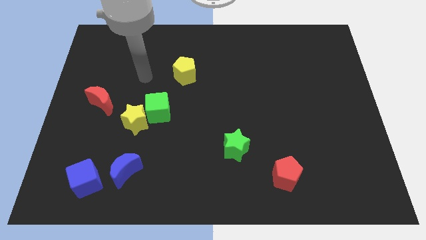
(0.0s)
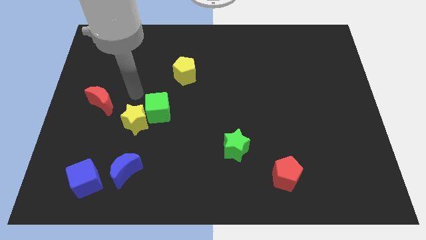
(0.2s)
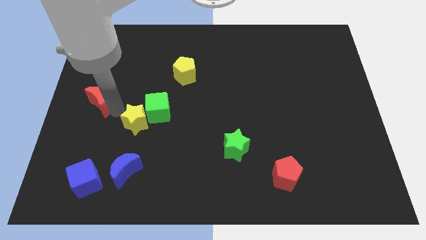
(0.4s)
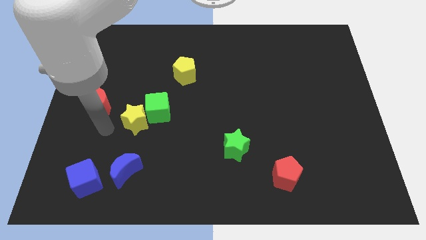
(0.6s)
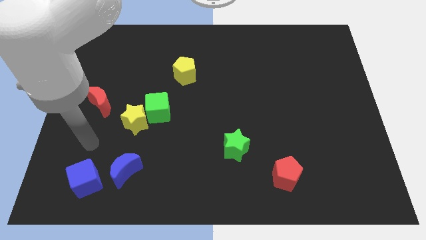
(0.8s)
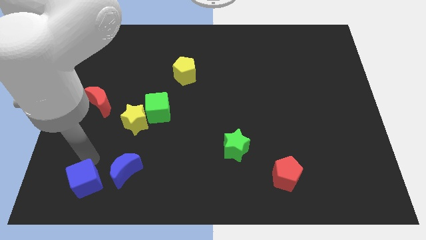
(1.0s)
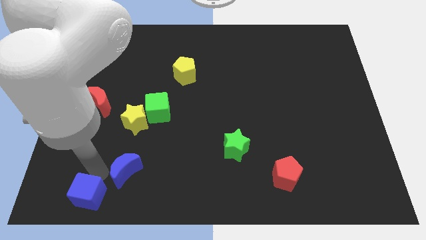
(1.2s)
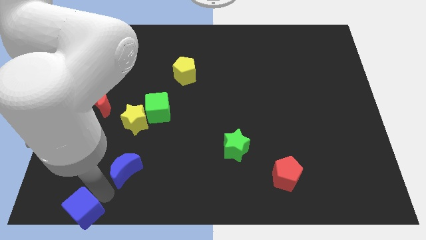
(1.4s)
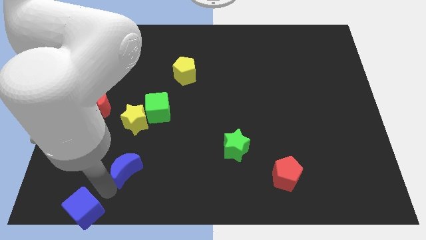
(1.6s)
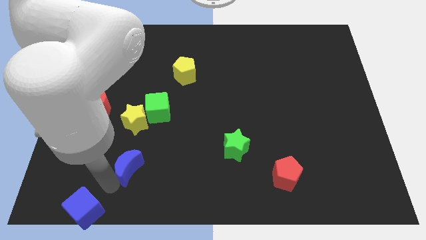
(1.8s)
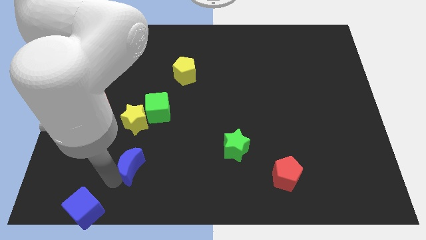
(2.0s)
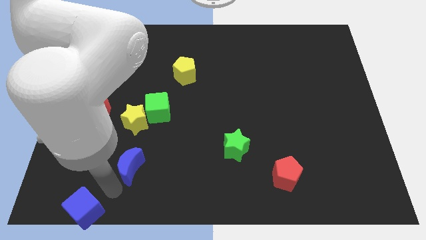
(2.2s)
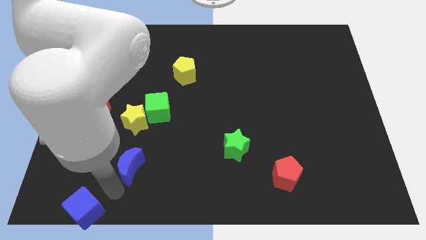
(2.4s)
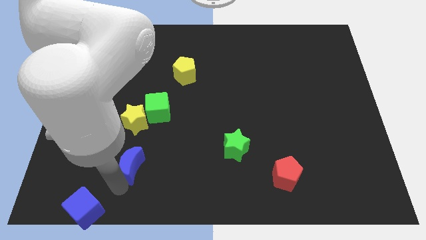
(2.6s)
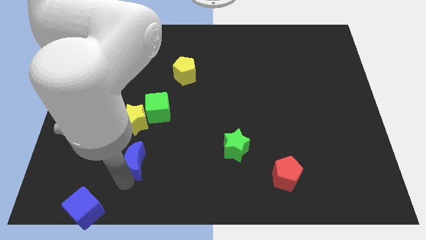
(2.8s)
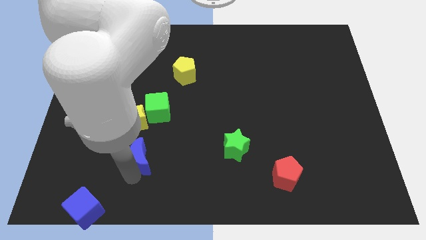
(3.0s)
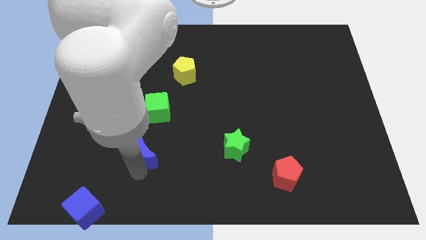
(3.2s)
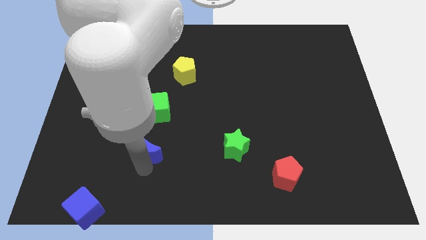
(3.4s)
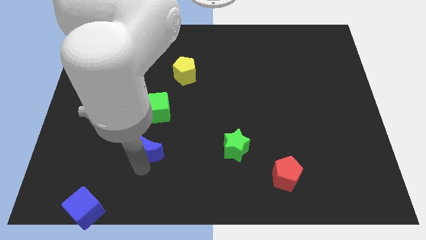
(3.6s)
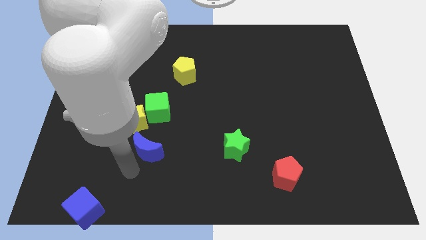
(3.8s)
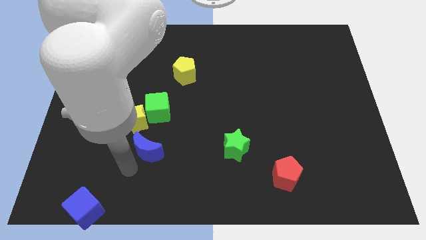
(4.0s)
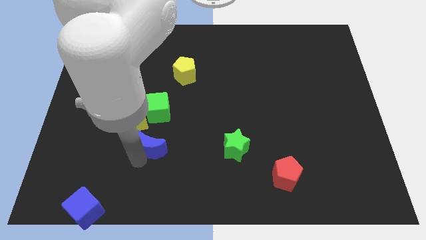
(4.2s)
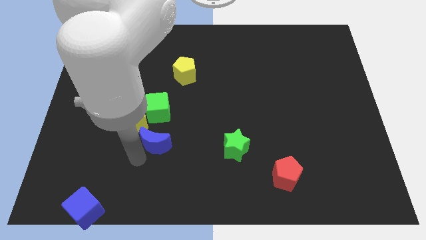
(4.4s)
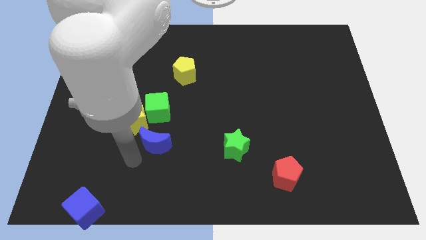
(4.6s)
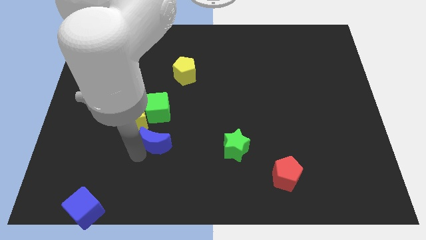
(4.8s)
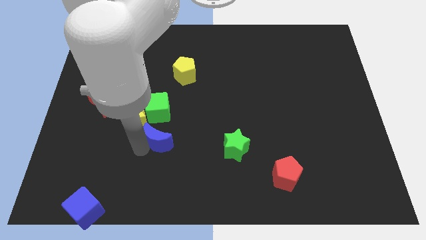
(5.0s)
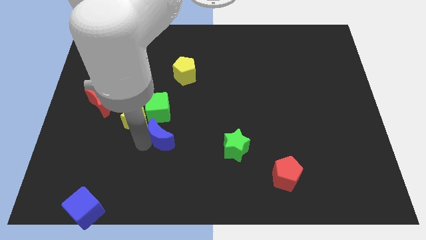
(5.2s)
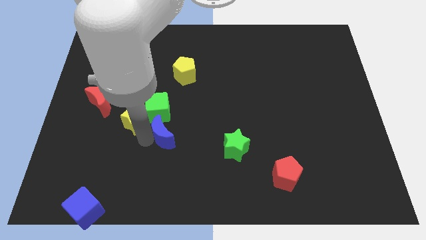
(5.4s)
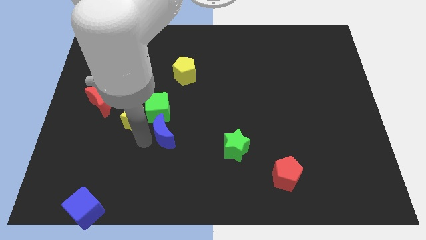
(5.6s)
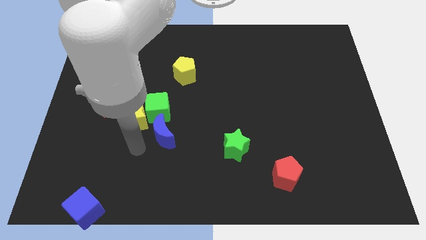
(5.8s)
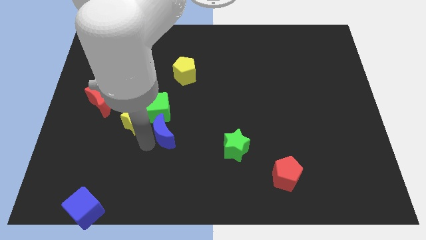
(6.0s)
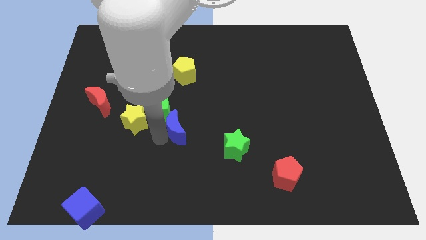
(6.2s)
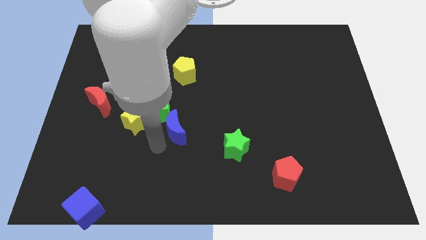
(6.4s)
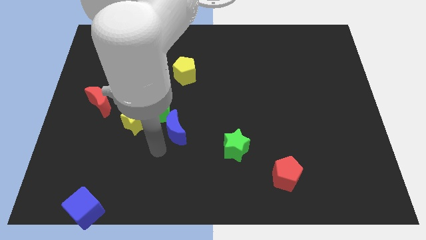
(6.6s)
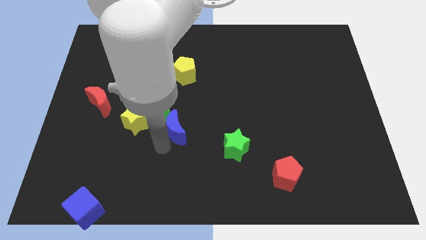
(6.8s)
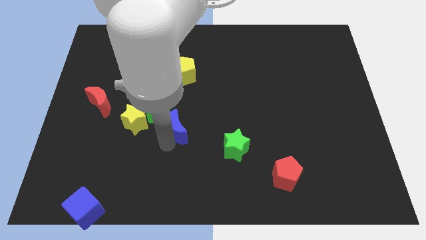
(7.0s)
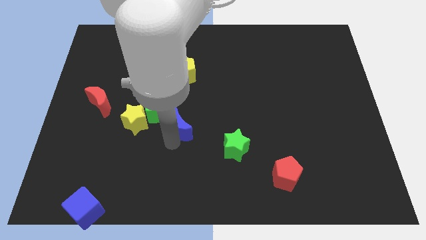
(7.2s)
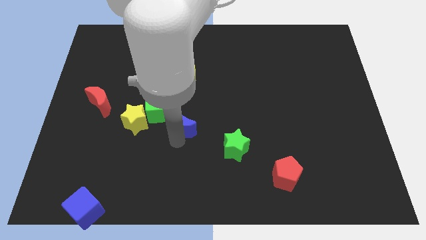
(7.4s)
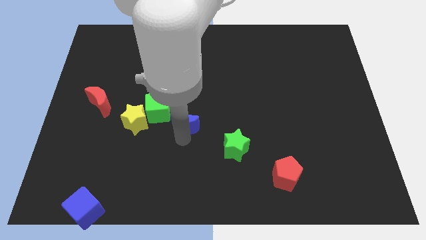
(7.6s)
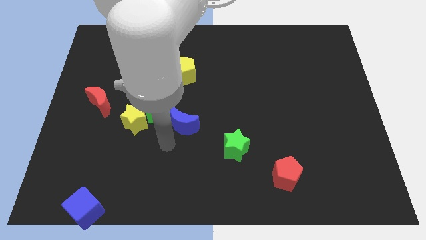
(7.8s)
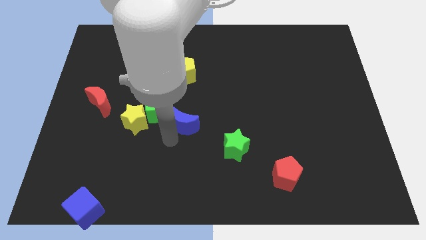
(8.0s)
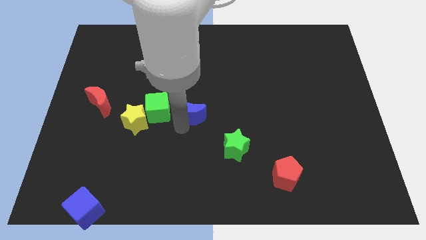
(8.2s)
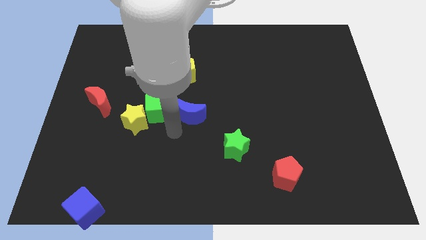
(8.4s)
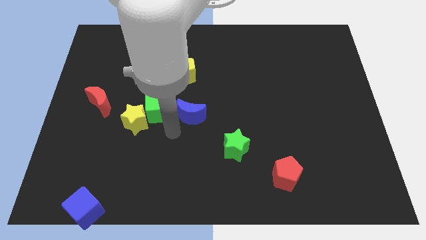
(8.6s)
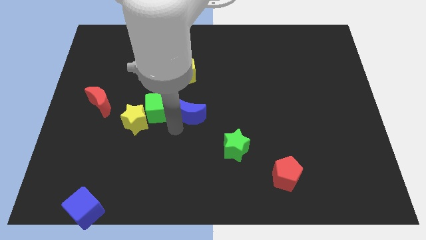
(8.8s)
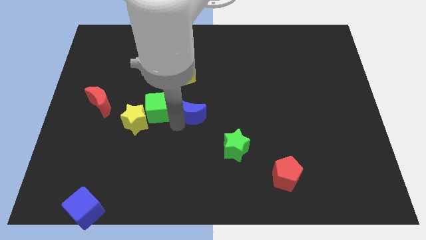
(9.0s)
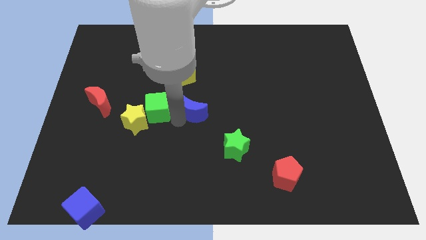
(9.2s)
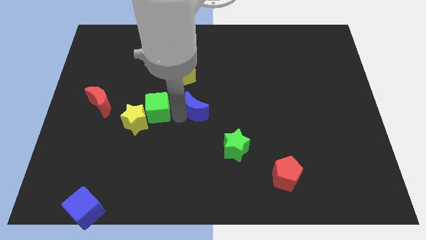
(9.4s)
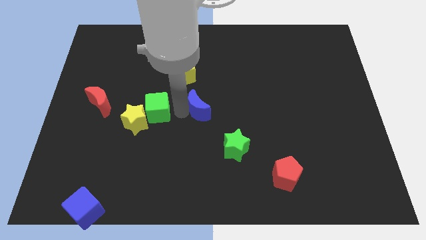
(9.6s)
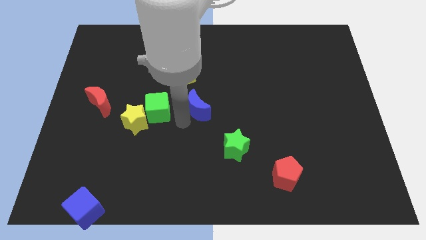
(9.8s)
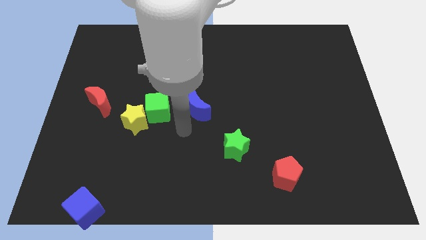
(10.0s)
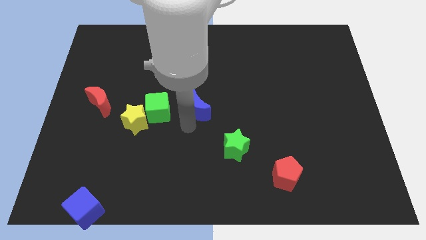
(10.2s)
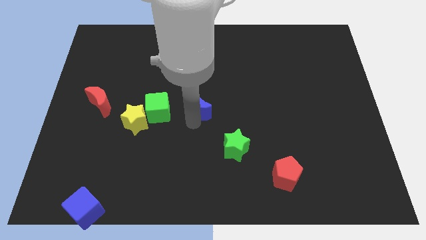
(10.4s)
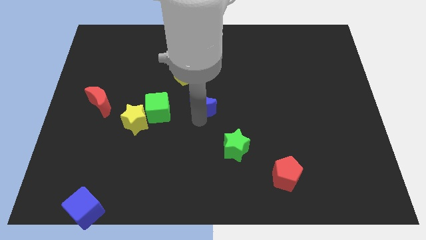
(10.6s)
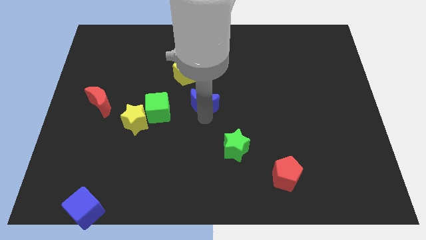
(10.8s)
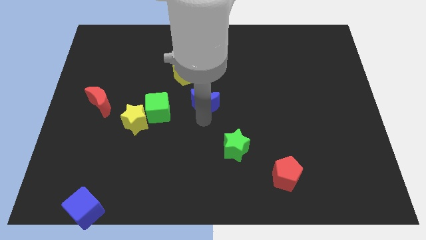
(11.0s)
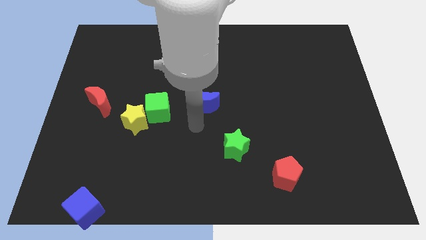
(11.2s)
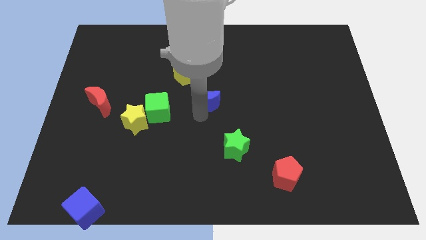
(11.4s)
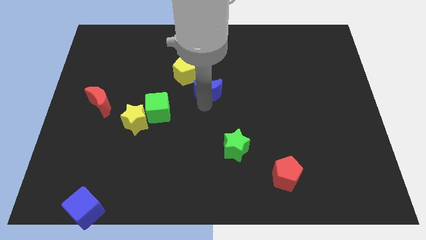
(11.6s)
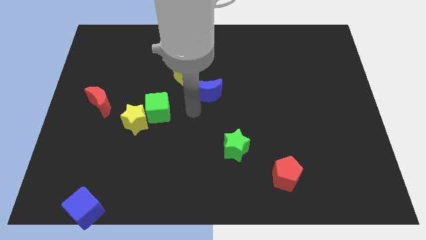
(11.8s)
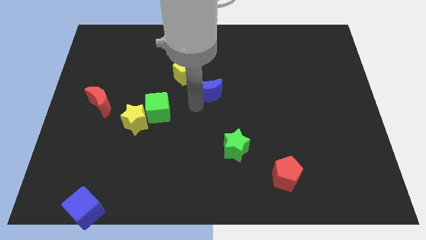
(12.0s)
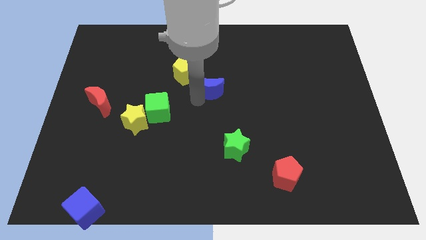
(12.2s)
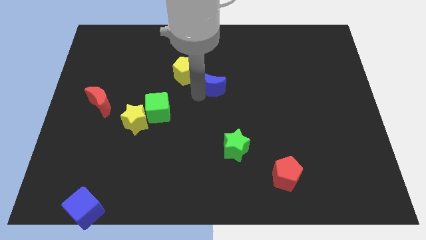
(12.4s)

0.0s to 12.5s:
push the blue moon just right of the yellow pentagon
